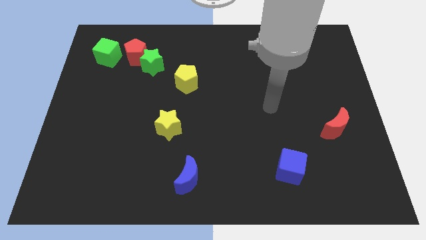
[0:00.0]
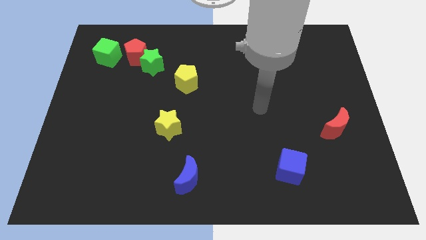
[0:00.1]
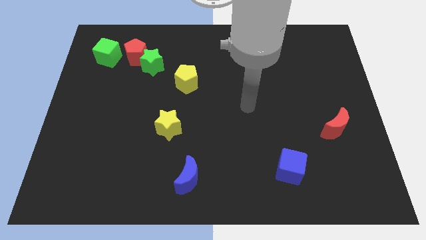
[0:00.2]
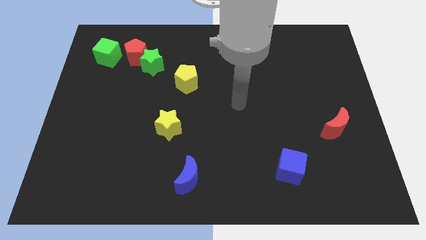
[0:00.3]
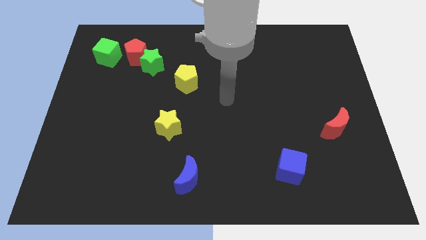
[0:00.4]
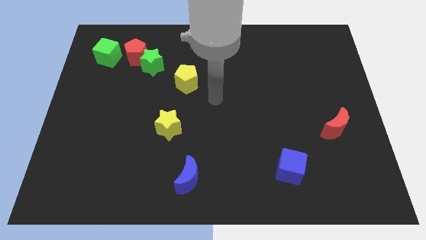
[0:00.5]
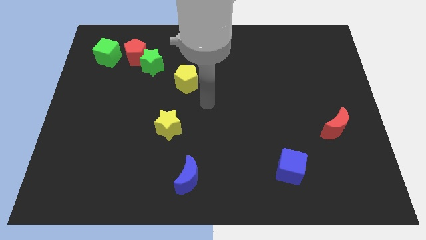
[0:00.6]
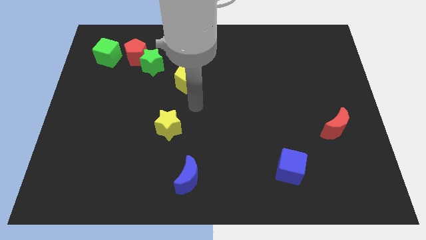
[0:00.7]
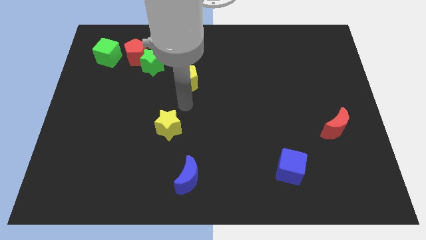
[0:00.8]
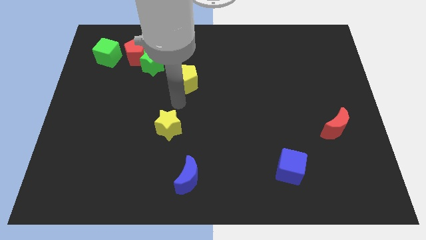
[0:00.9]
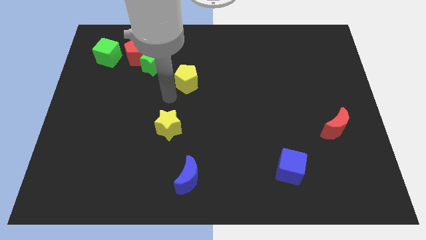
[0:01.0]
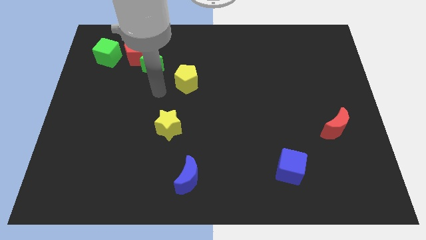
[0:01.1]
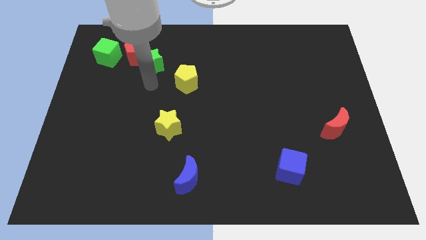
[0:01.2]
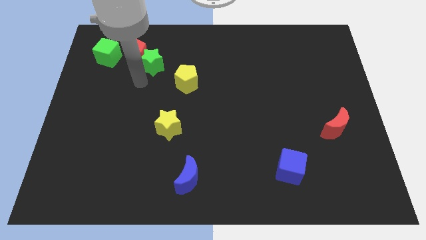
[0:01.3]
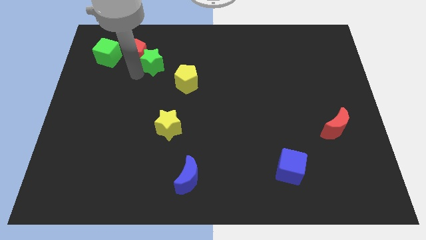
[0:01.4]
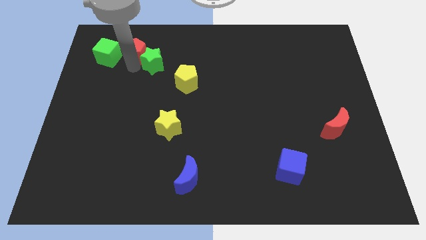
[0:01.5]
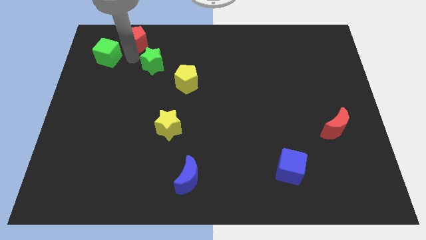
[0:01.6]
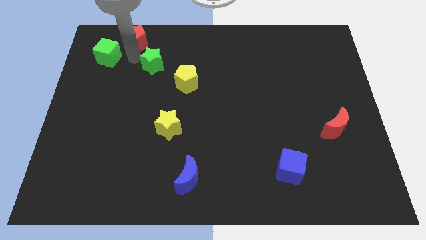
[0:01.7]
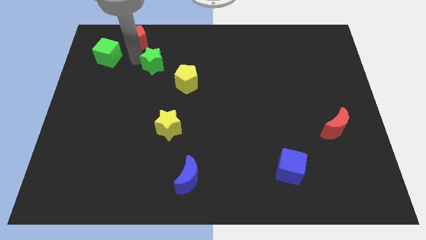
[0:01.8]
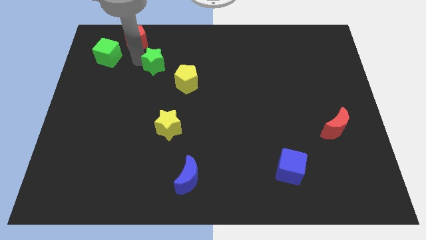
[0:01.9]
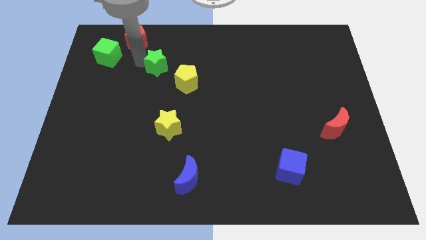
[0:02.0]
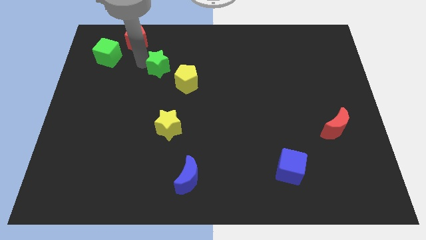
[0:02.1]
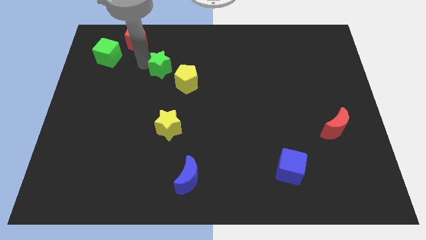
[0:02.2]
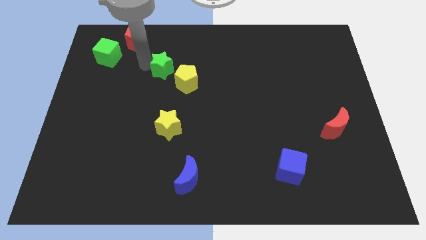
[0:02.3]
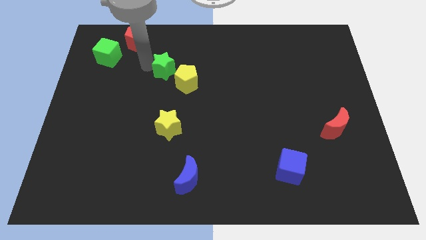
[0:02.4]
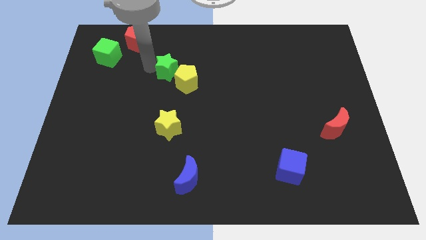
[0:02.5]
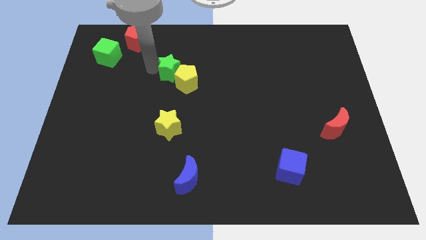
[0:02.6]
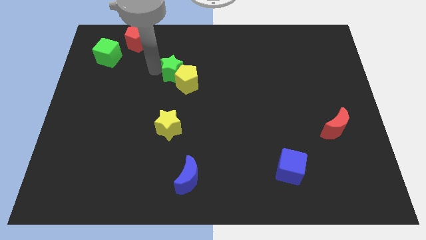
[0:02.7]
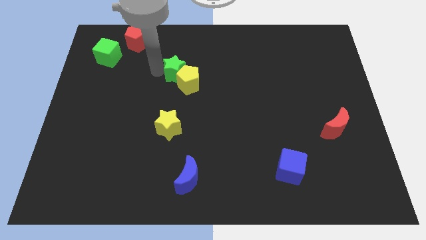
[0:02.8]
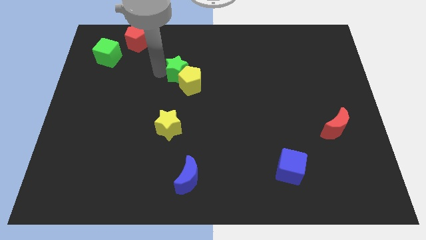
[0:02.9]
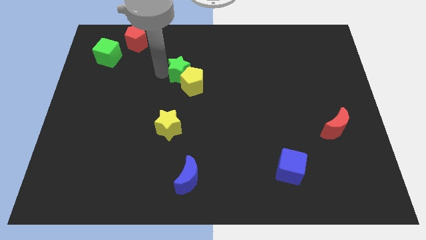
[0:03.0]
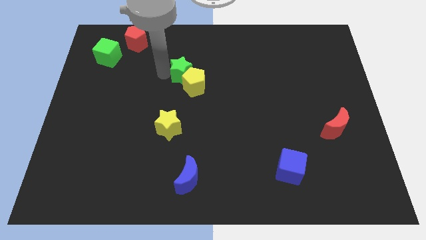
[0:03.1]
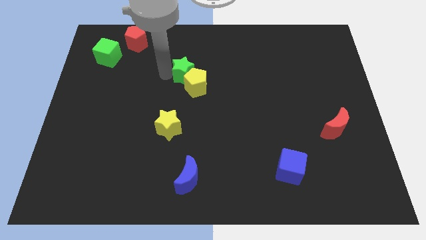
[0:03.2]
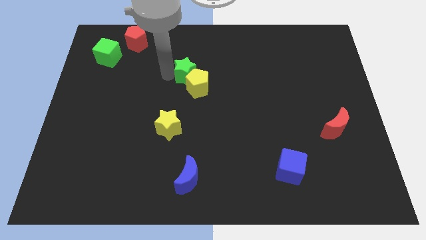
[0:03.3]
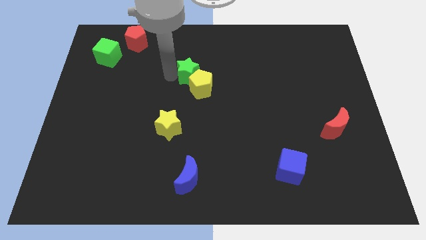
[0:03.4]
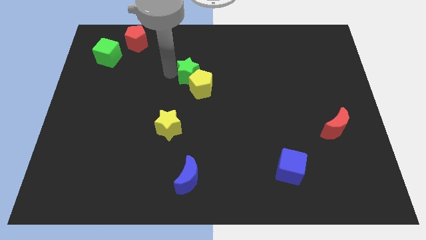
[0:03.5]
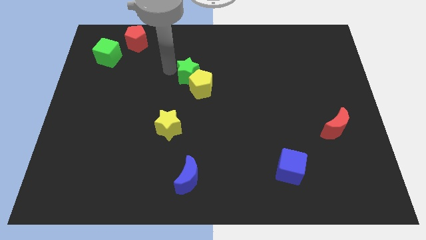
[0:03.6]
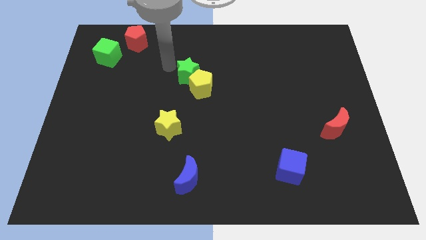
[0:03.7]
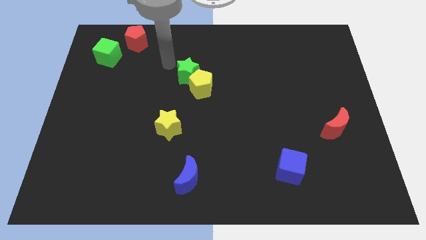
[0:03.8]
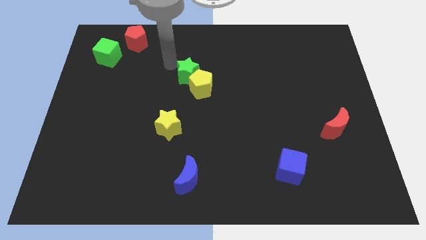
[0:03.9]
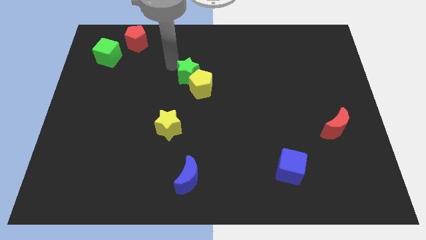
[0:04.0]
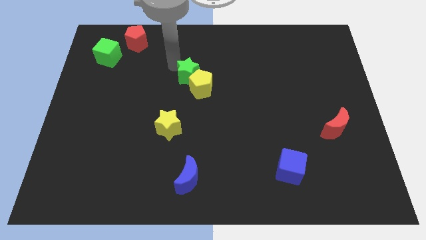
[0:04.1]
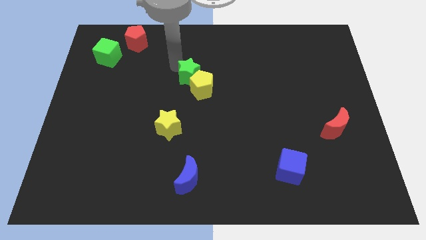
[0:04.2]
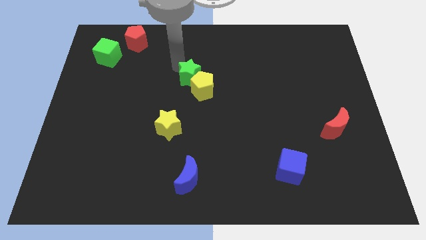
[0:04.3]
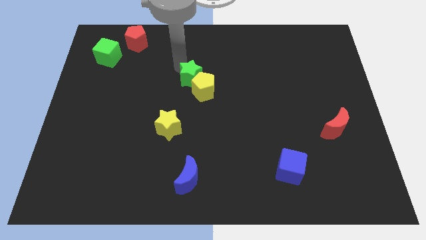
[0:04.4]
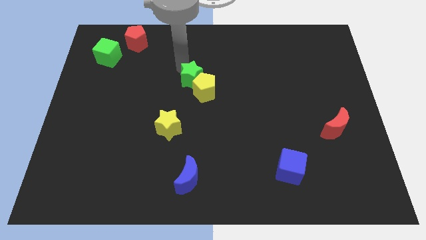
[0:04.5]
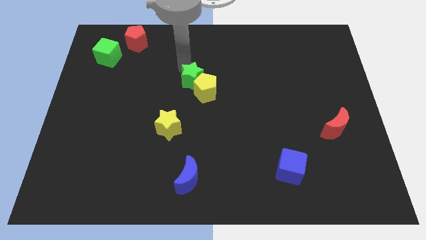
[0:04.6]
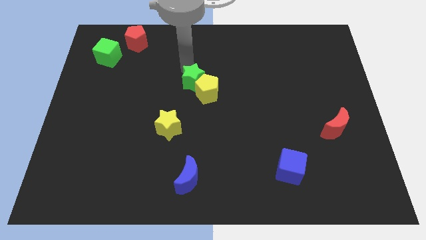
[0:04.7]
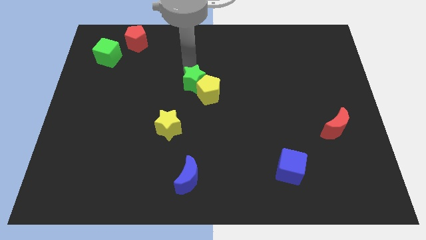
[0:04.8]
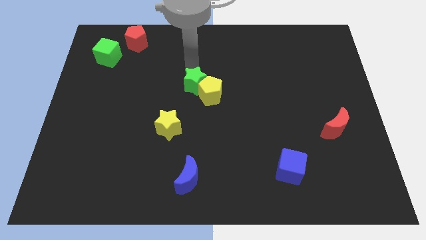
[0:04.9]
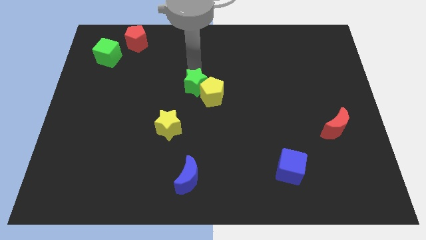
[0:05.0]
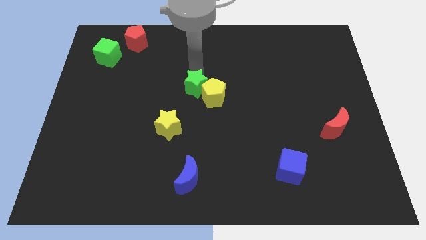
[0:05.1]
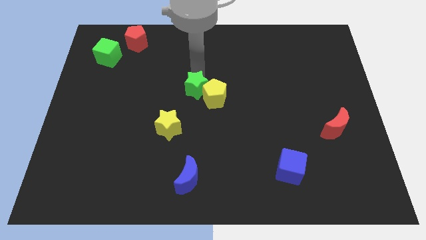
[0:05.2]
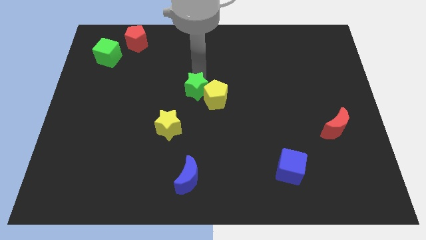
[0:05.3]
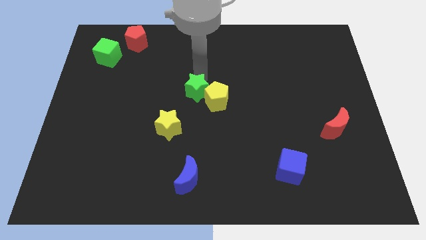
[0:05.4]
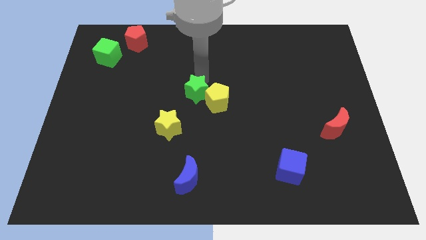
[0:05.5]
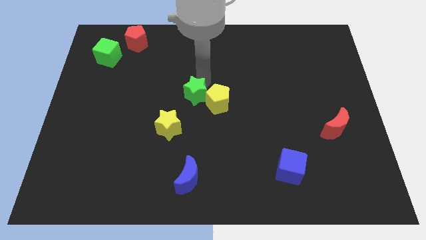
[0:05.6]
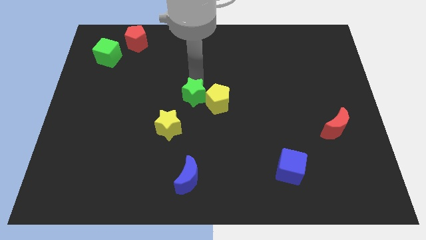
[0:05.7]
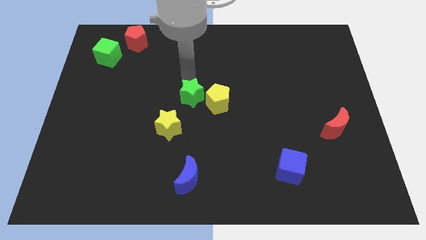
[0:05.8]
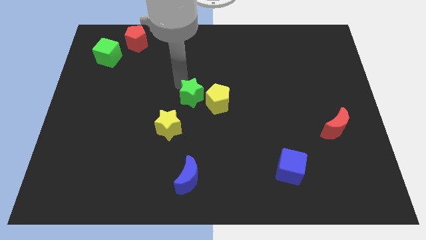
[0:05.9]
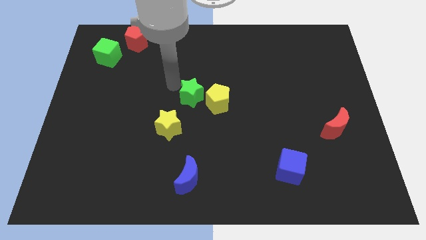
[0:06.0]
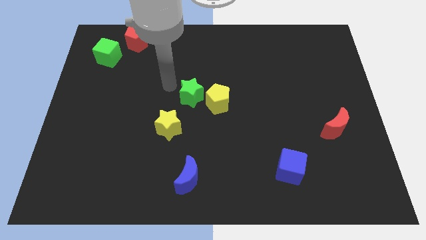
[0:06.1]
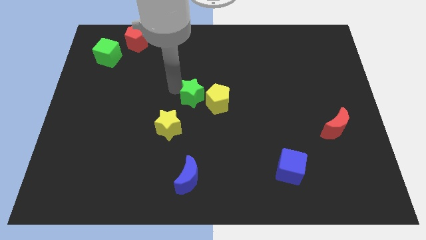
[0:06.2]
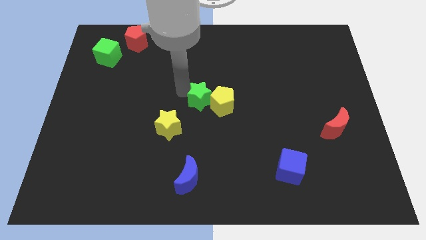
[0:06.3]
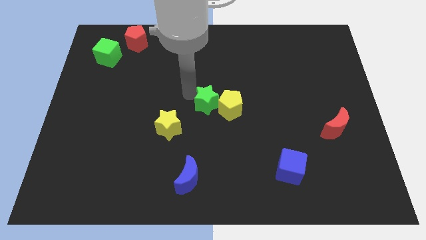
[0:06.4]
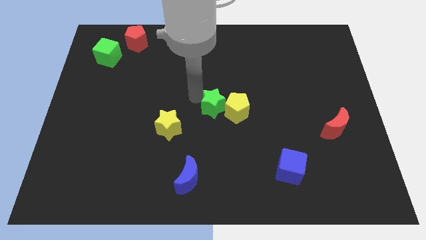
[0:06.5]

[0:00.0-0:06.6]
push the green star downwards and then right

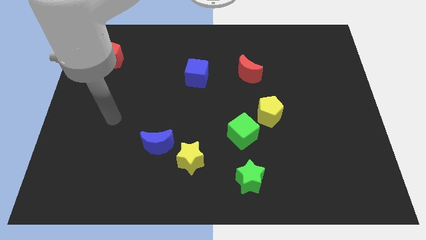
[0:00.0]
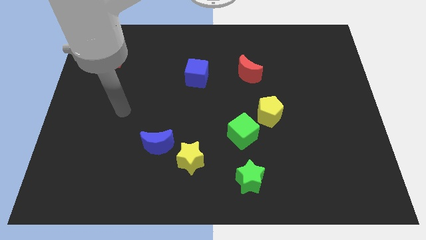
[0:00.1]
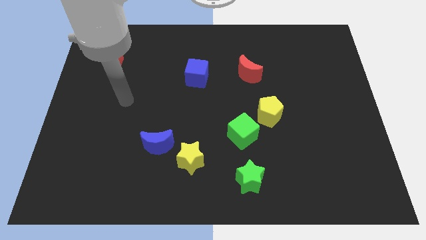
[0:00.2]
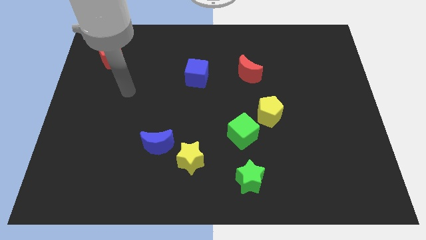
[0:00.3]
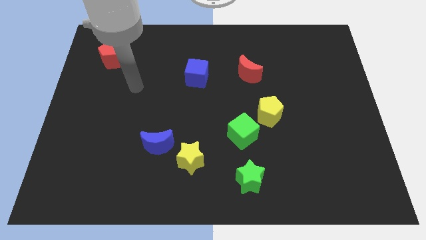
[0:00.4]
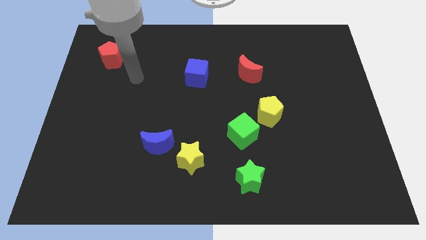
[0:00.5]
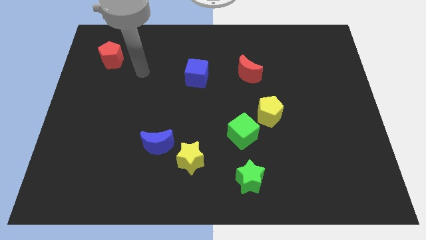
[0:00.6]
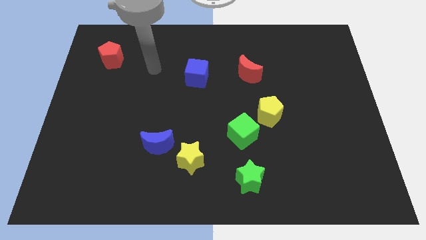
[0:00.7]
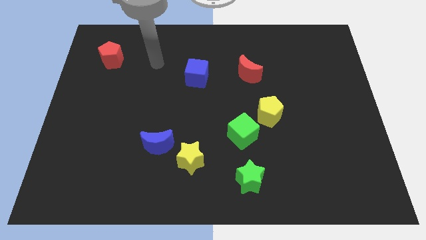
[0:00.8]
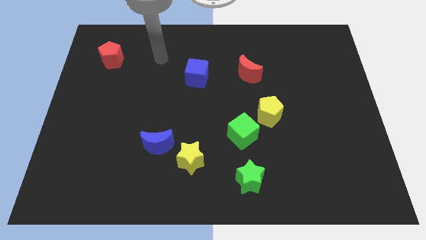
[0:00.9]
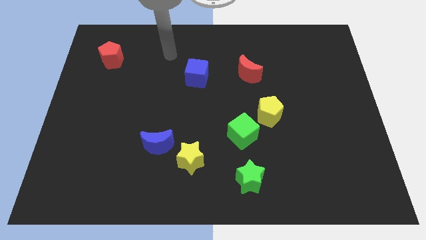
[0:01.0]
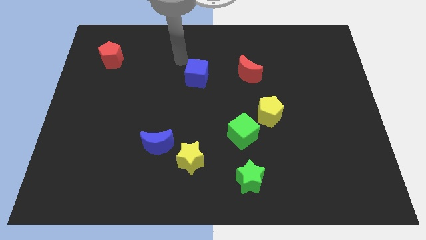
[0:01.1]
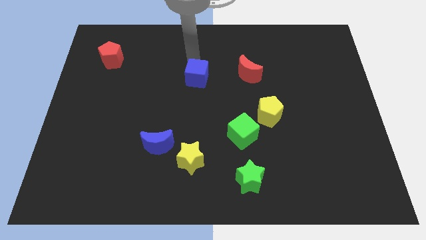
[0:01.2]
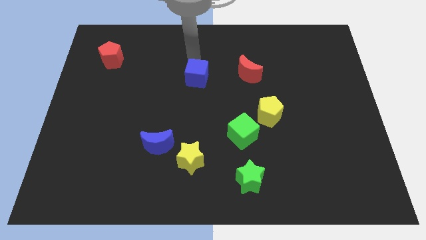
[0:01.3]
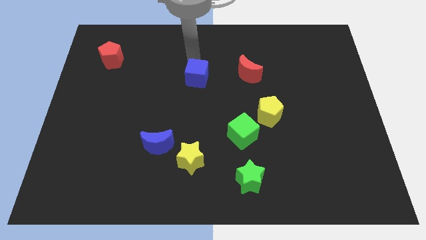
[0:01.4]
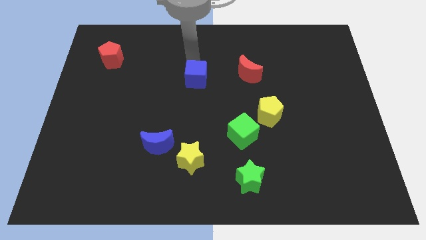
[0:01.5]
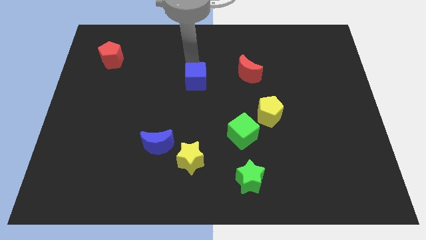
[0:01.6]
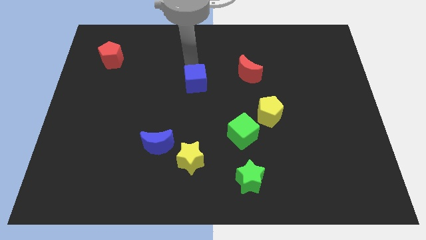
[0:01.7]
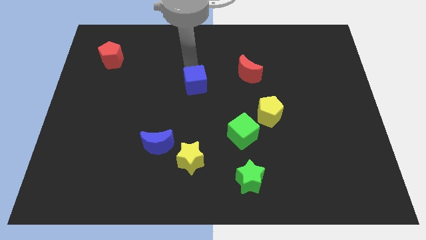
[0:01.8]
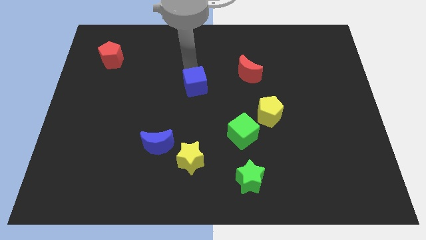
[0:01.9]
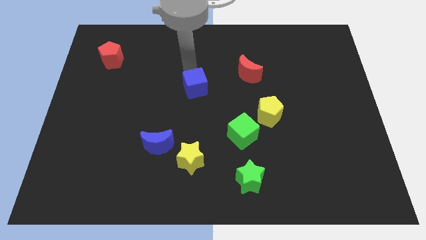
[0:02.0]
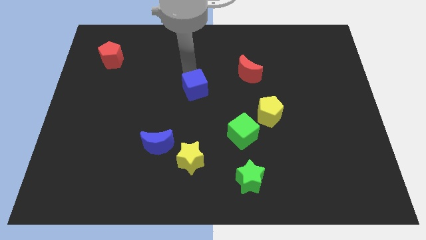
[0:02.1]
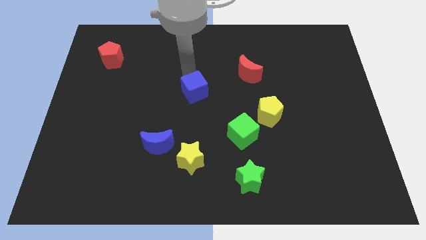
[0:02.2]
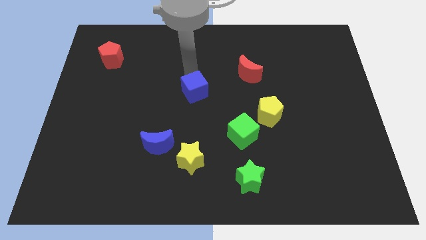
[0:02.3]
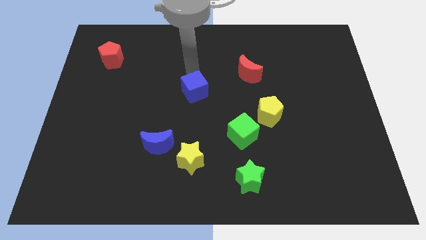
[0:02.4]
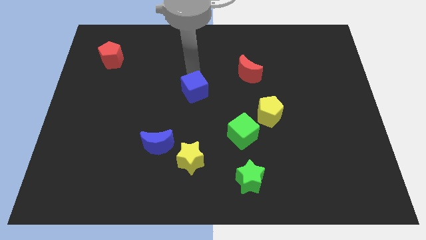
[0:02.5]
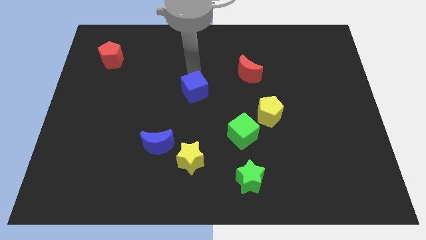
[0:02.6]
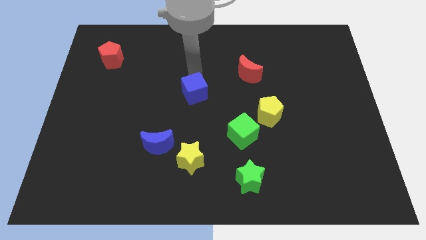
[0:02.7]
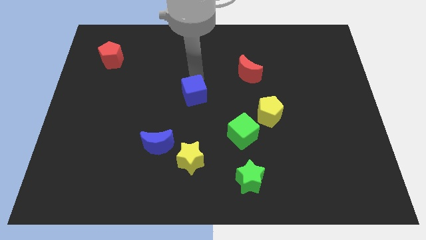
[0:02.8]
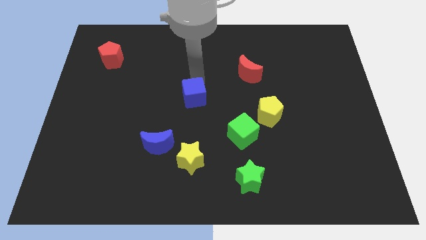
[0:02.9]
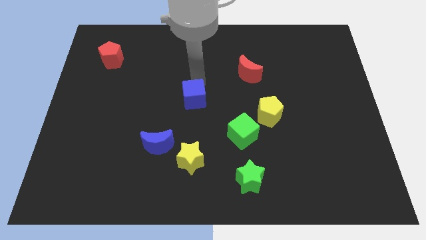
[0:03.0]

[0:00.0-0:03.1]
slide the blue cube a little bit down
